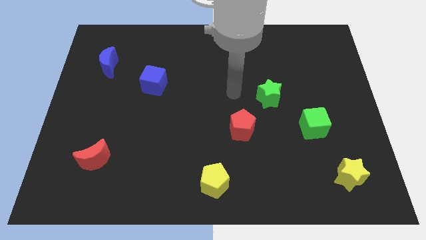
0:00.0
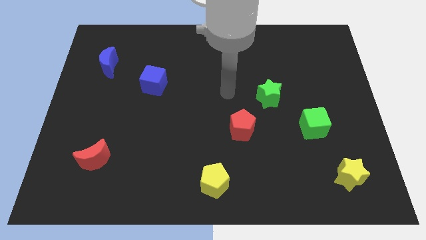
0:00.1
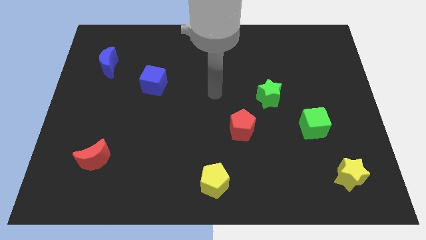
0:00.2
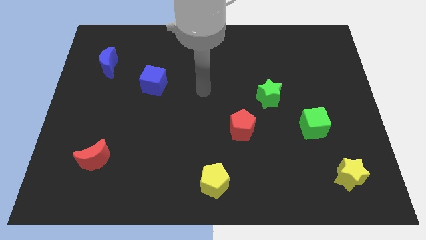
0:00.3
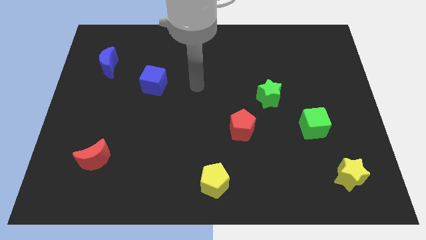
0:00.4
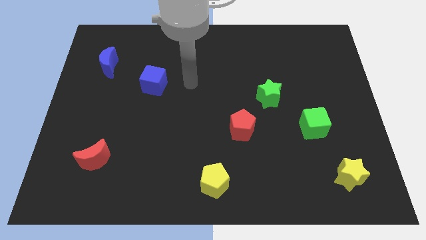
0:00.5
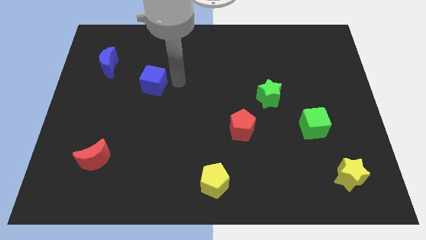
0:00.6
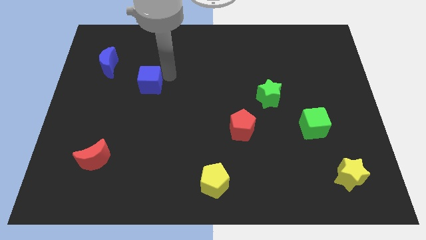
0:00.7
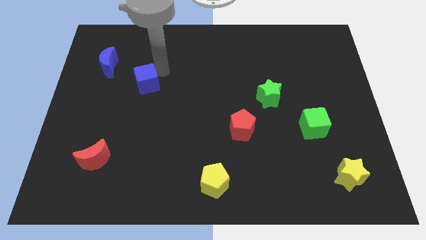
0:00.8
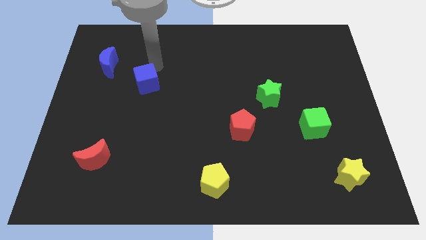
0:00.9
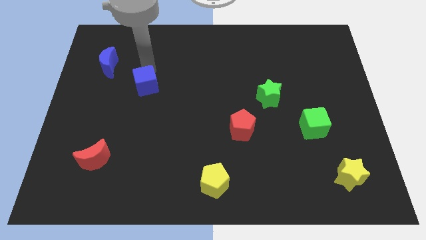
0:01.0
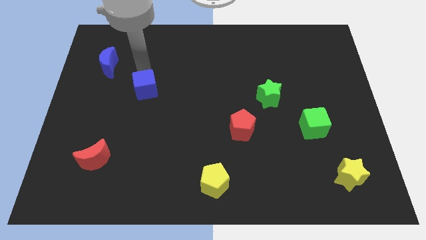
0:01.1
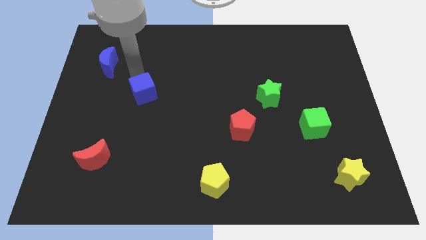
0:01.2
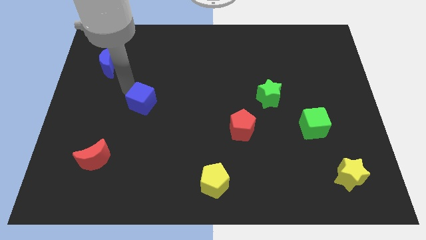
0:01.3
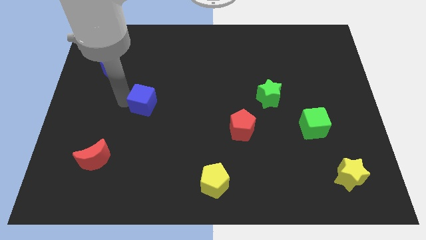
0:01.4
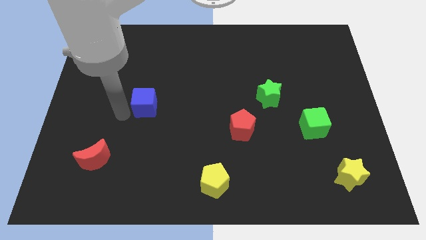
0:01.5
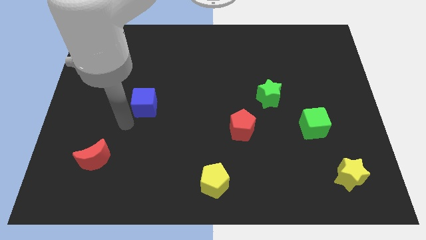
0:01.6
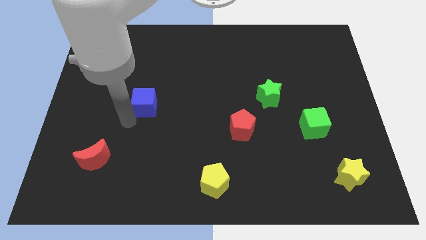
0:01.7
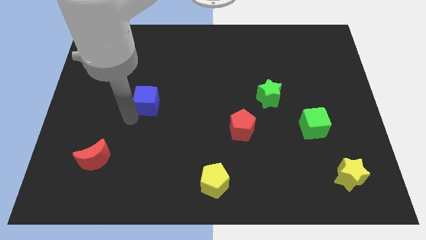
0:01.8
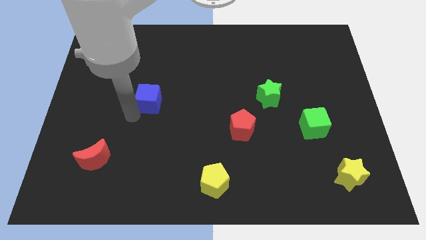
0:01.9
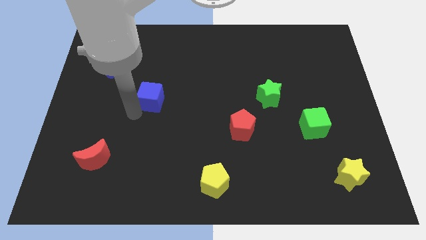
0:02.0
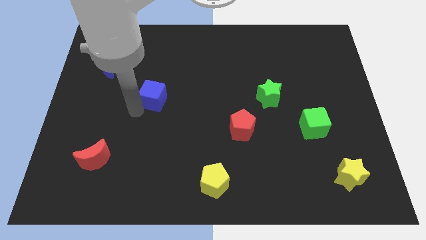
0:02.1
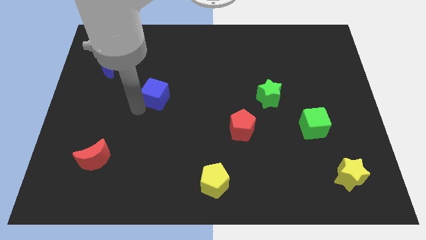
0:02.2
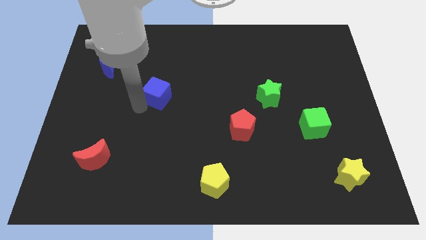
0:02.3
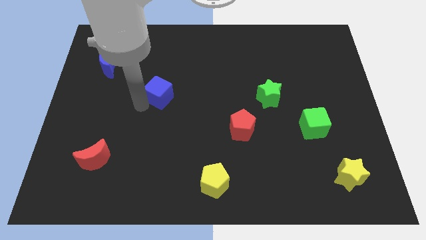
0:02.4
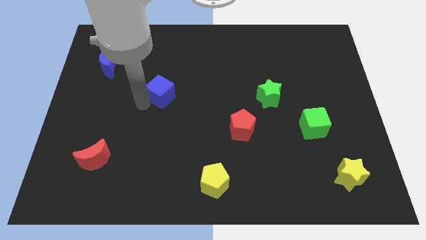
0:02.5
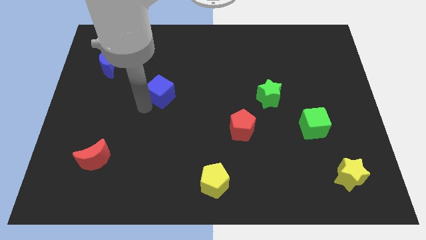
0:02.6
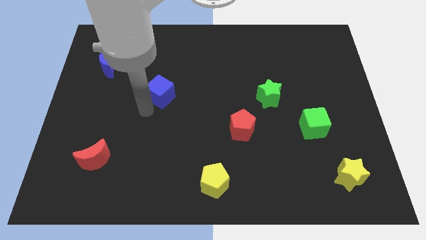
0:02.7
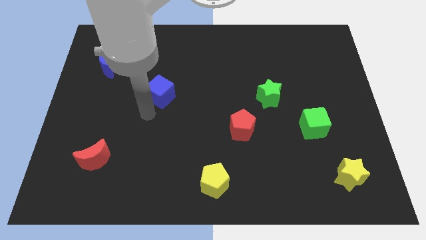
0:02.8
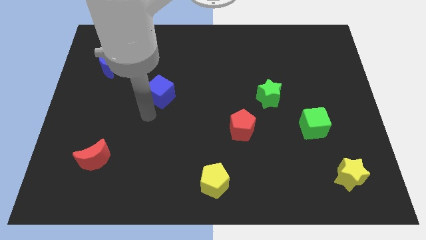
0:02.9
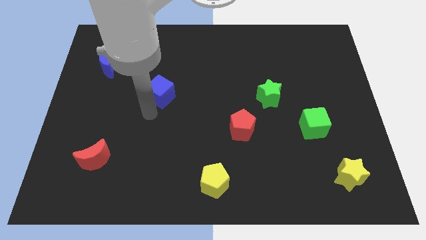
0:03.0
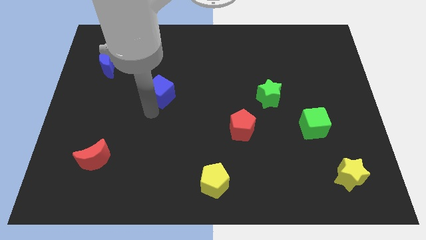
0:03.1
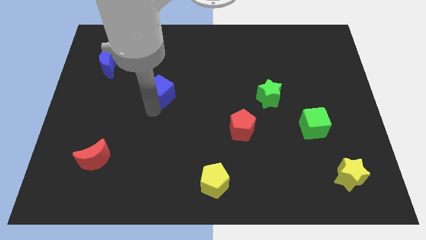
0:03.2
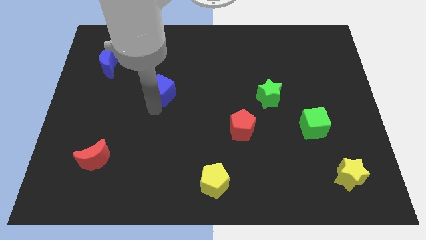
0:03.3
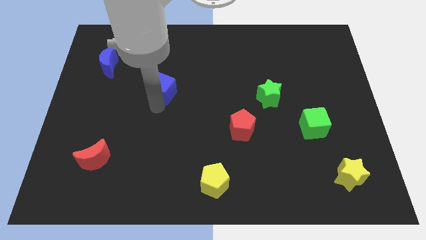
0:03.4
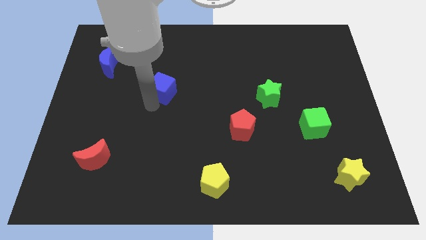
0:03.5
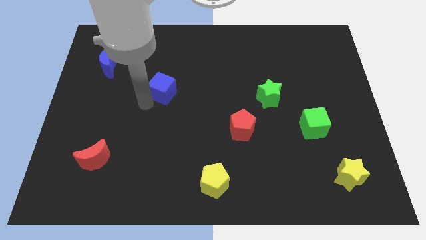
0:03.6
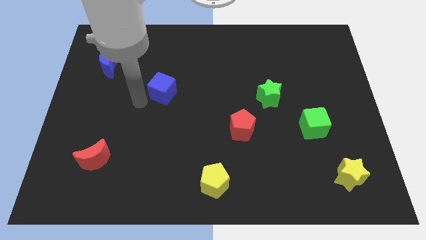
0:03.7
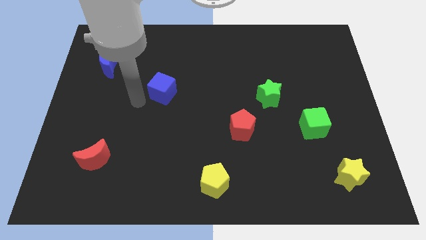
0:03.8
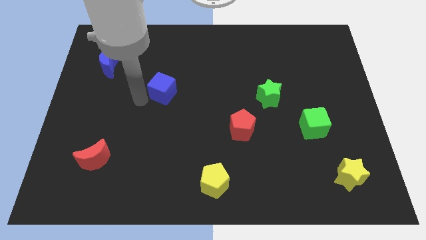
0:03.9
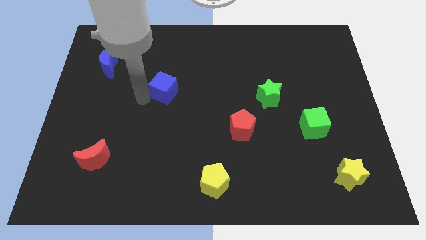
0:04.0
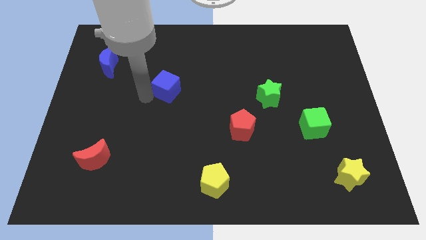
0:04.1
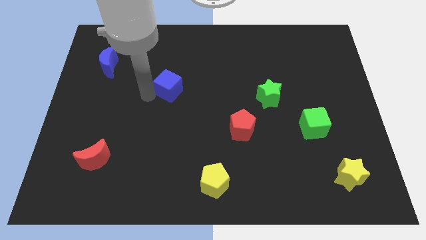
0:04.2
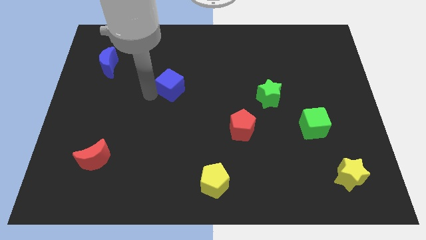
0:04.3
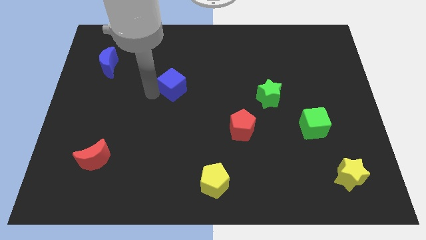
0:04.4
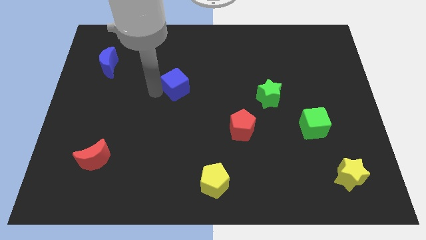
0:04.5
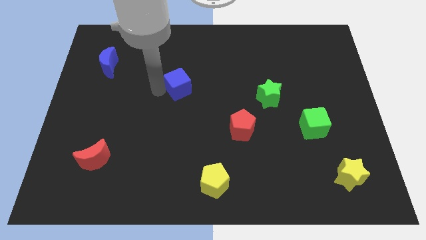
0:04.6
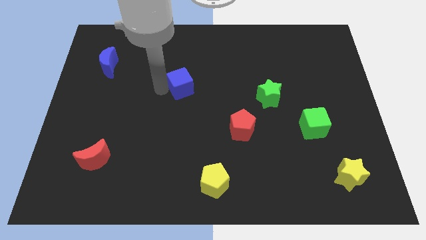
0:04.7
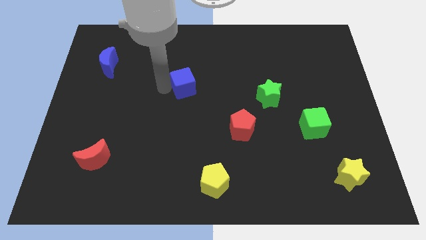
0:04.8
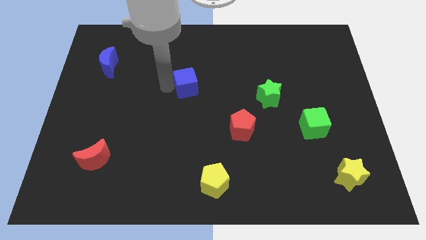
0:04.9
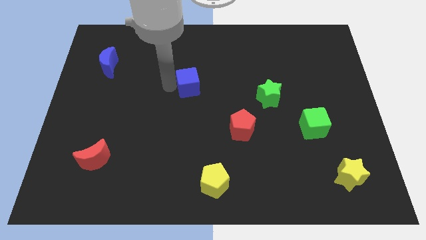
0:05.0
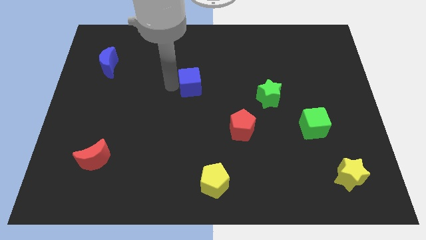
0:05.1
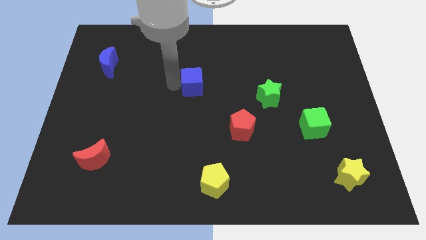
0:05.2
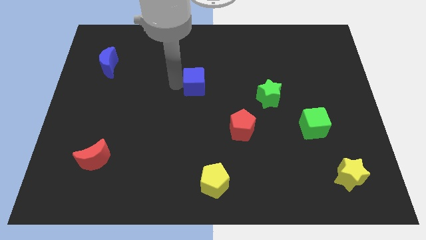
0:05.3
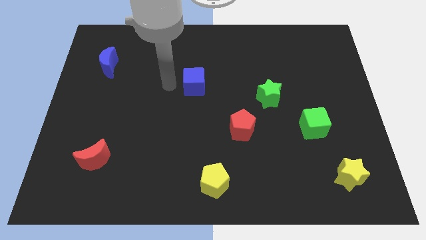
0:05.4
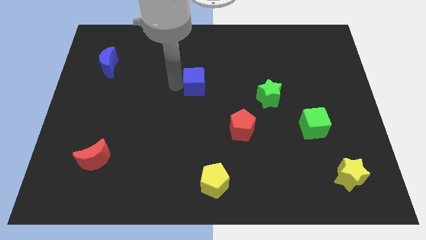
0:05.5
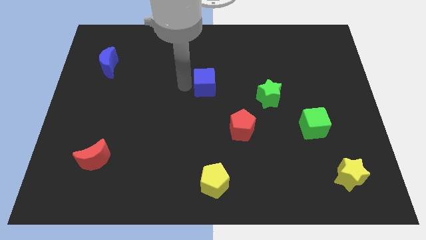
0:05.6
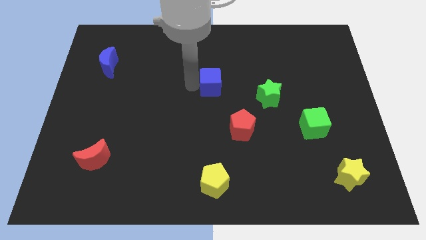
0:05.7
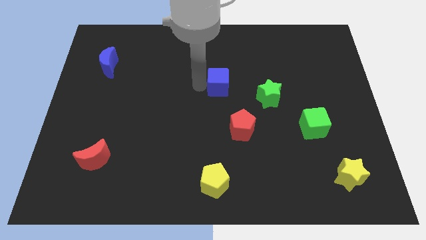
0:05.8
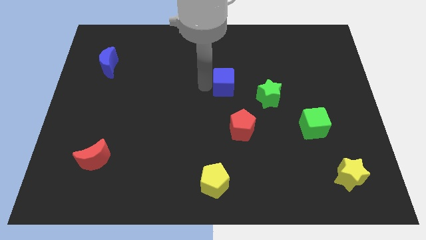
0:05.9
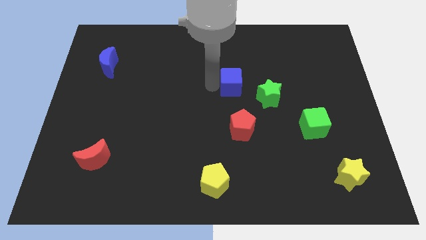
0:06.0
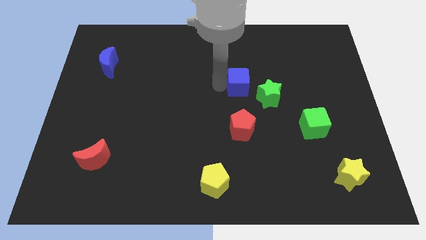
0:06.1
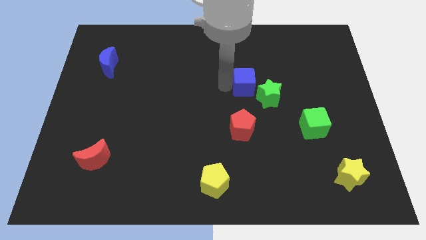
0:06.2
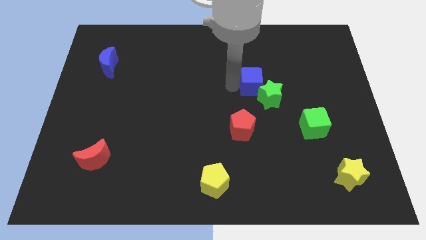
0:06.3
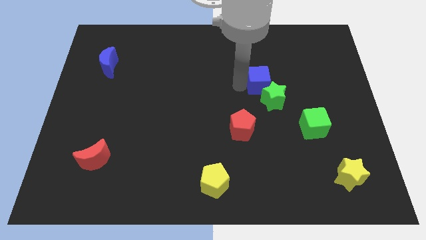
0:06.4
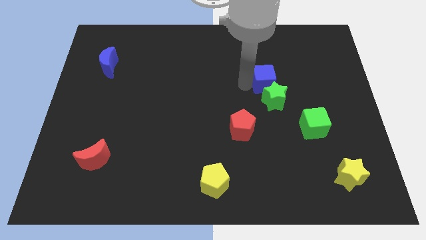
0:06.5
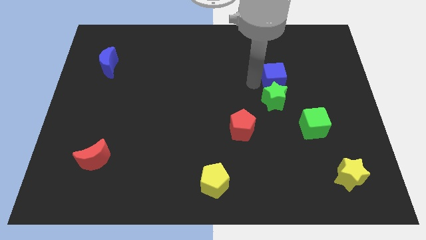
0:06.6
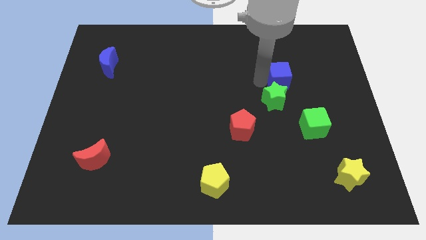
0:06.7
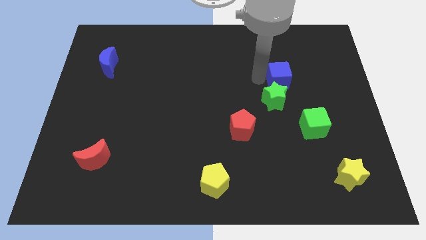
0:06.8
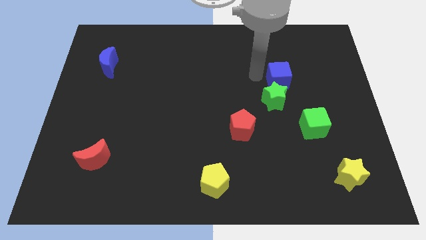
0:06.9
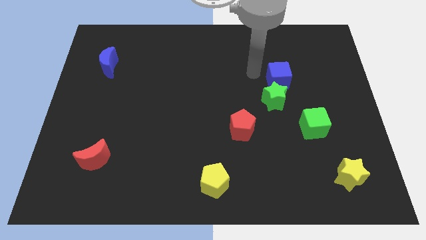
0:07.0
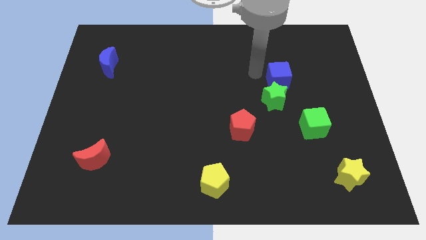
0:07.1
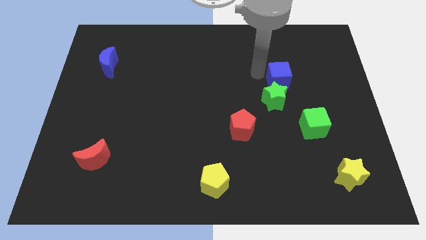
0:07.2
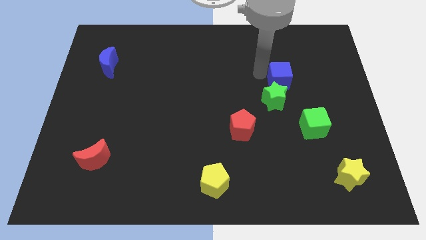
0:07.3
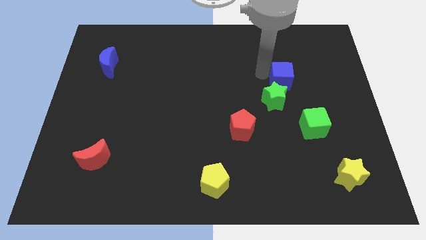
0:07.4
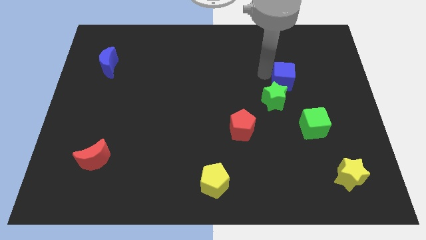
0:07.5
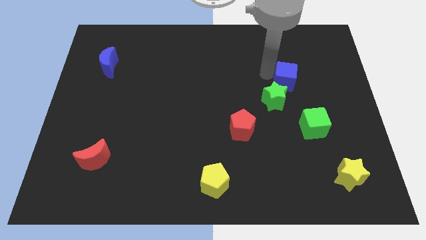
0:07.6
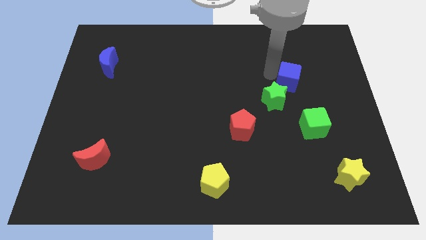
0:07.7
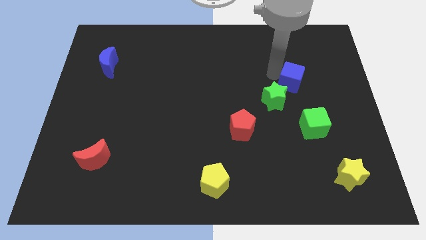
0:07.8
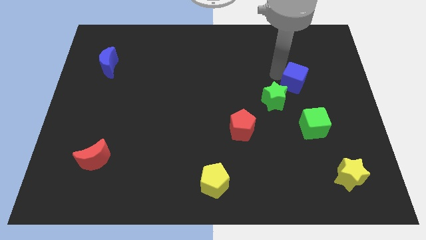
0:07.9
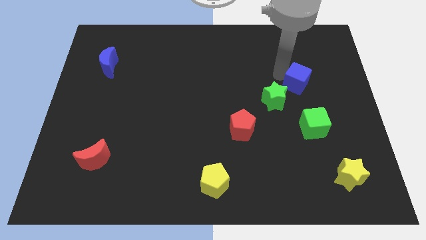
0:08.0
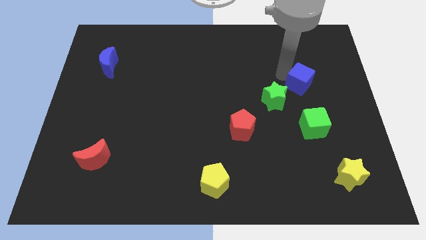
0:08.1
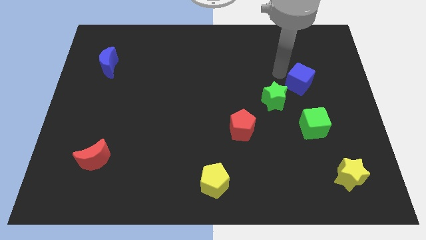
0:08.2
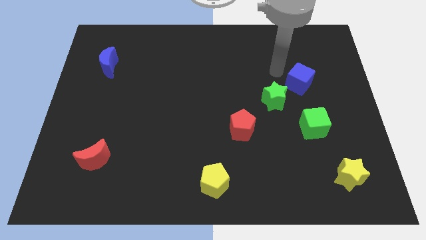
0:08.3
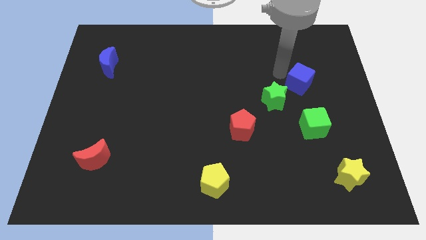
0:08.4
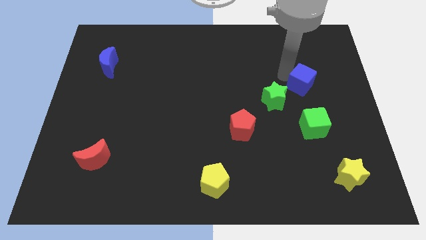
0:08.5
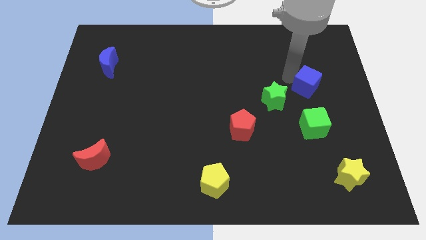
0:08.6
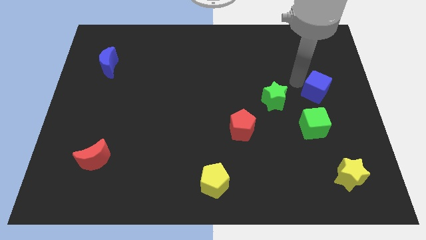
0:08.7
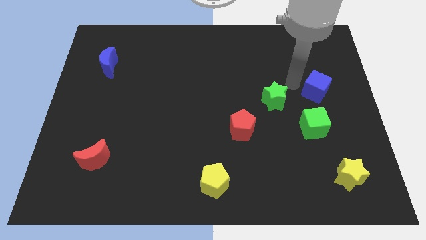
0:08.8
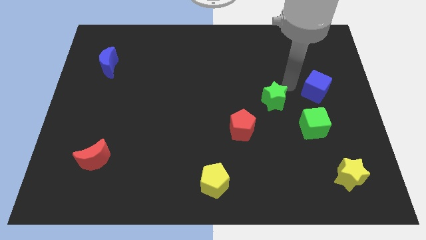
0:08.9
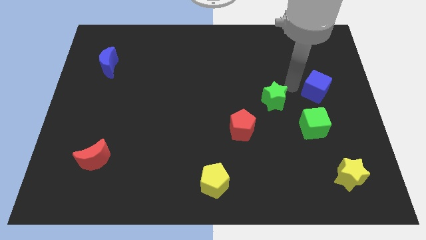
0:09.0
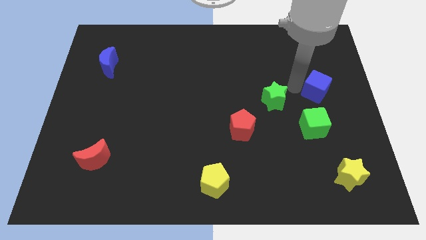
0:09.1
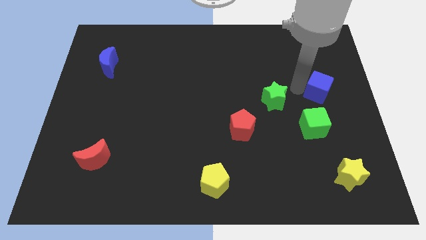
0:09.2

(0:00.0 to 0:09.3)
put the blue cube to the center right
